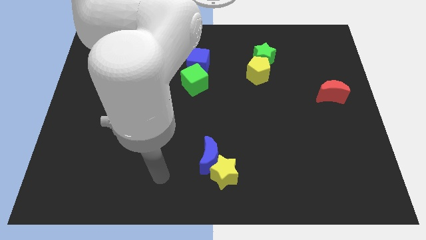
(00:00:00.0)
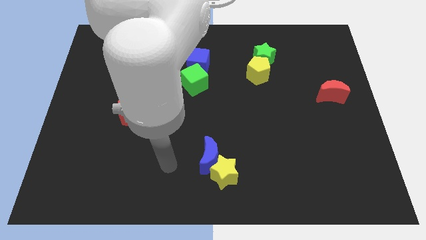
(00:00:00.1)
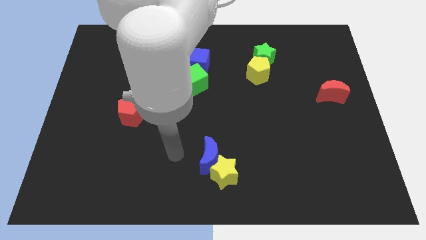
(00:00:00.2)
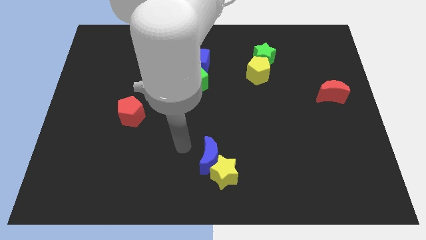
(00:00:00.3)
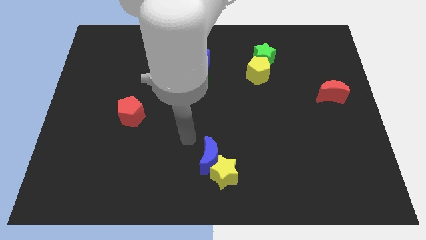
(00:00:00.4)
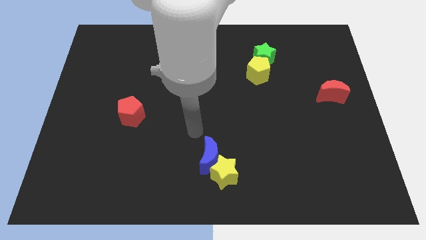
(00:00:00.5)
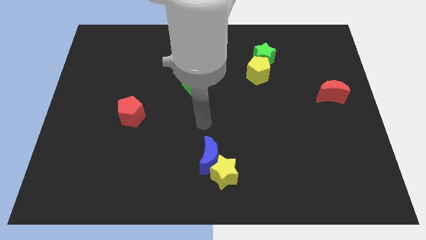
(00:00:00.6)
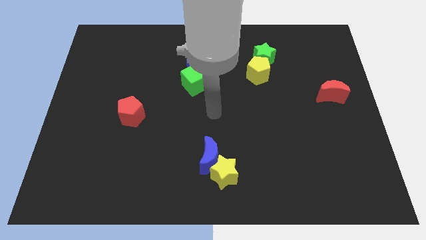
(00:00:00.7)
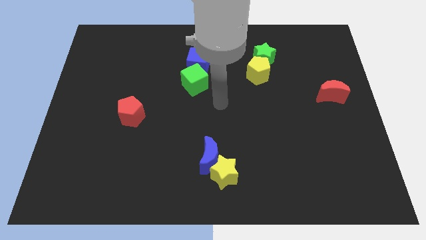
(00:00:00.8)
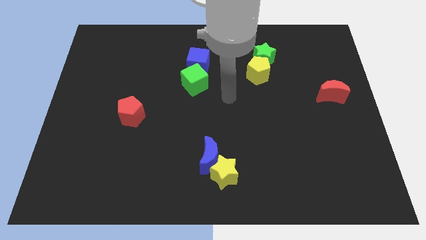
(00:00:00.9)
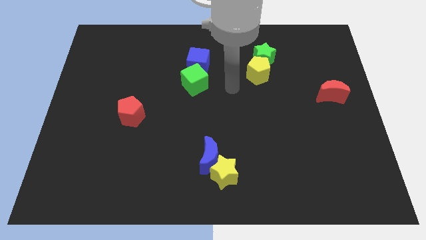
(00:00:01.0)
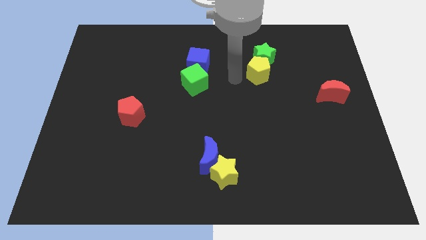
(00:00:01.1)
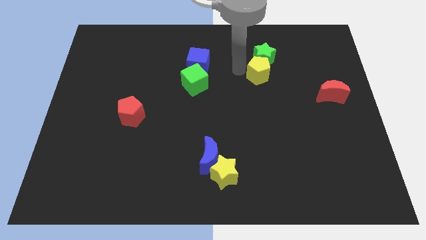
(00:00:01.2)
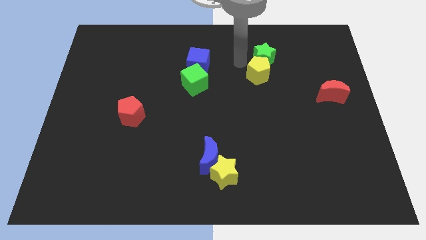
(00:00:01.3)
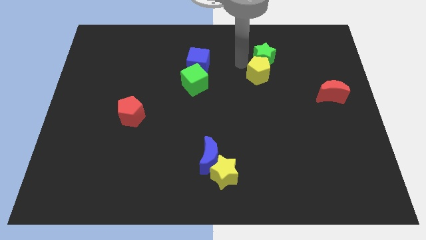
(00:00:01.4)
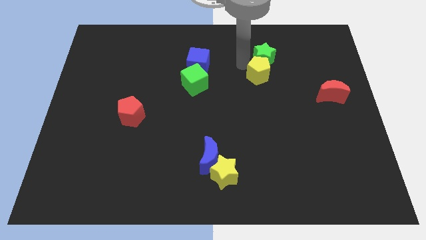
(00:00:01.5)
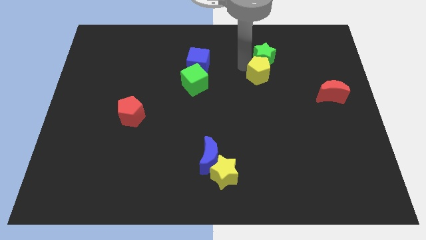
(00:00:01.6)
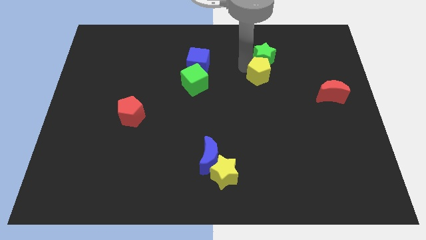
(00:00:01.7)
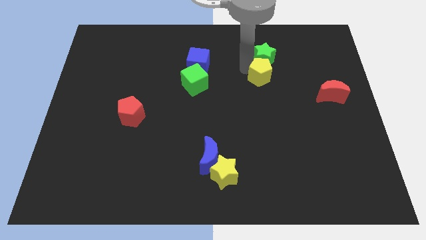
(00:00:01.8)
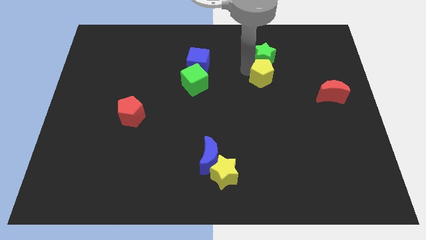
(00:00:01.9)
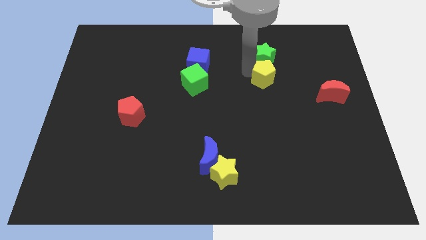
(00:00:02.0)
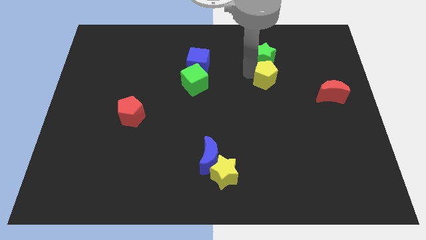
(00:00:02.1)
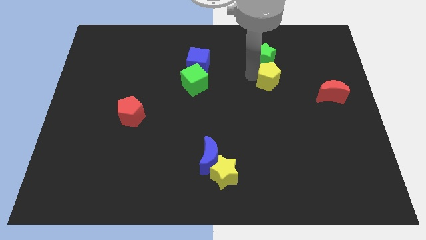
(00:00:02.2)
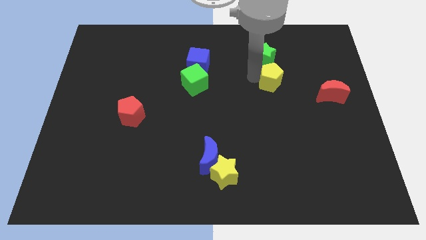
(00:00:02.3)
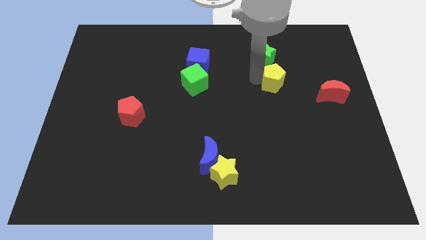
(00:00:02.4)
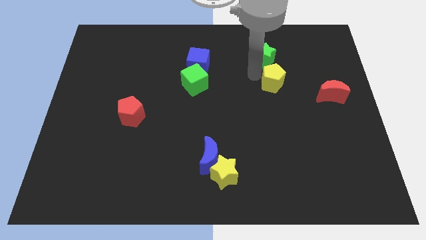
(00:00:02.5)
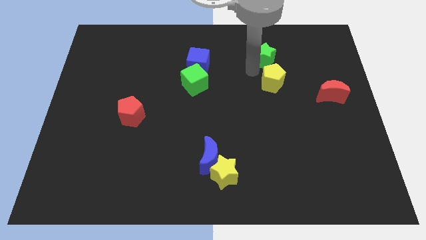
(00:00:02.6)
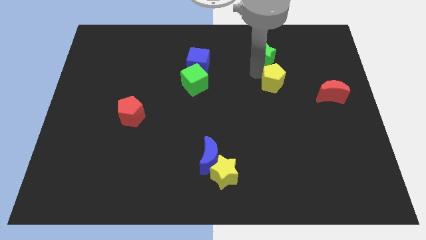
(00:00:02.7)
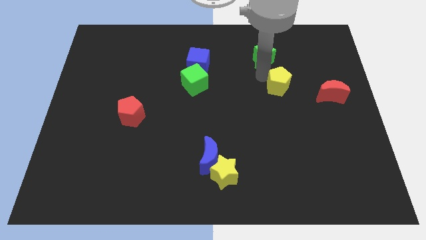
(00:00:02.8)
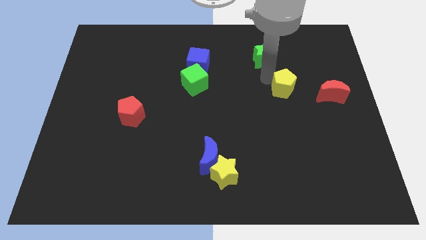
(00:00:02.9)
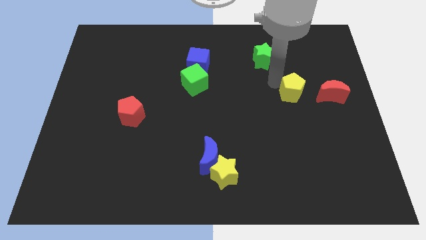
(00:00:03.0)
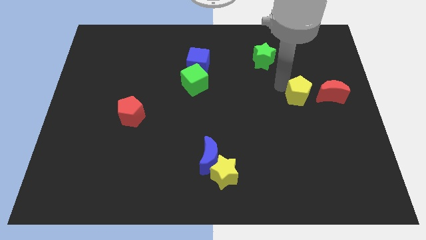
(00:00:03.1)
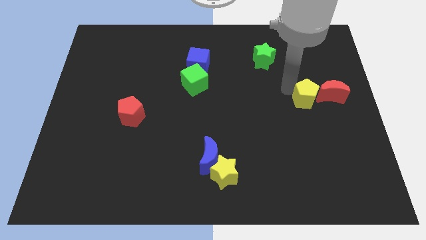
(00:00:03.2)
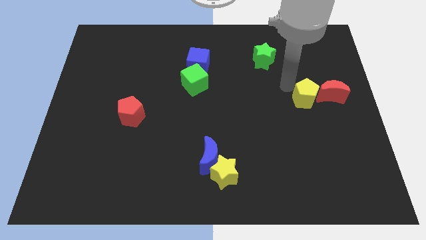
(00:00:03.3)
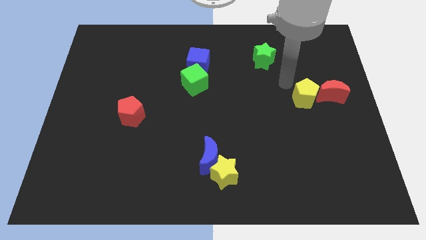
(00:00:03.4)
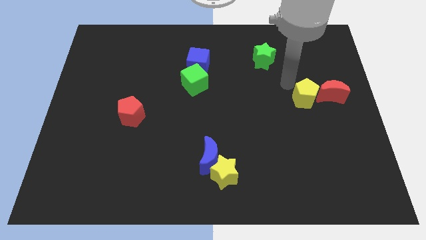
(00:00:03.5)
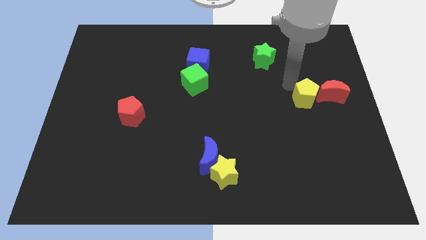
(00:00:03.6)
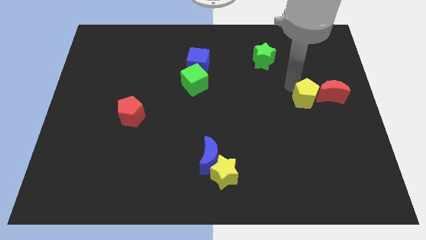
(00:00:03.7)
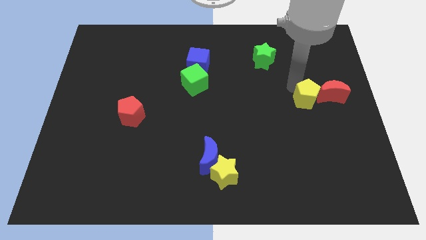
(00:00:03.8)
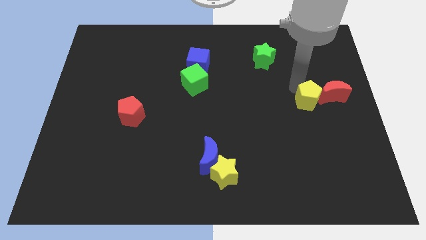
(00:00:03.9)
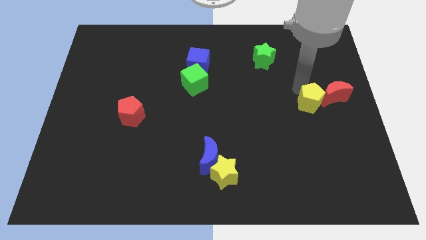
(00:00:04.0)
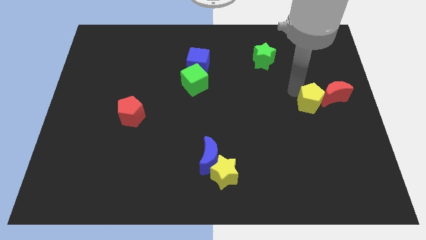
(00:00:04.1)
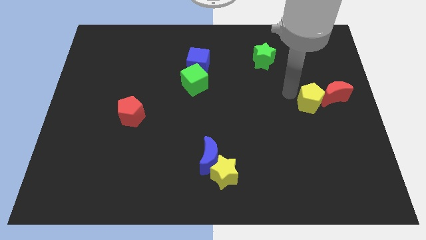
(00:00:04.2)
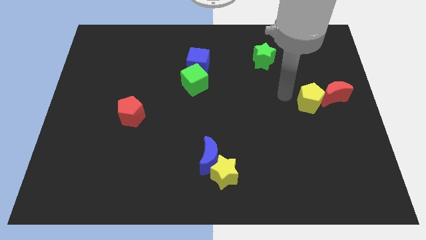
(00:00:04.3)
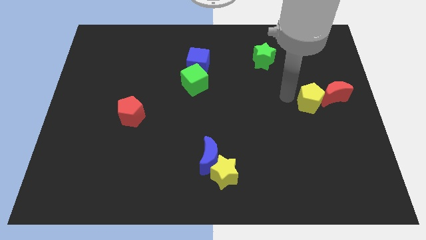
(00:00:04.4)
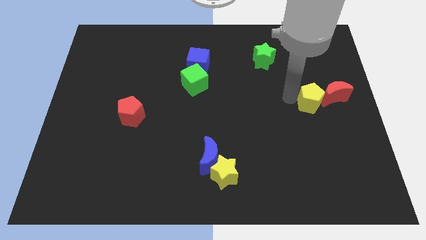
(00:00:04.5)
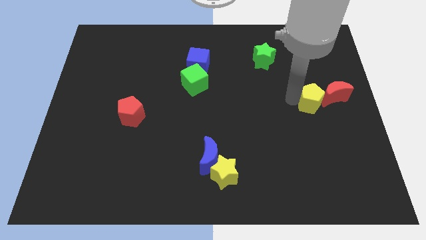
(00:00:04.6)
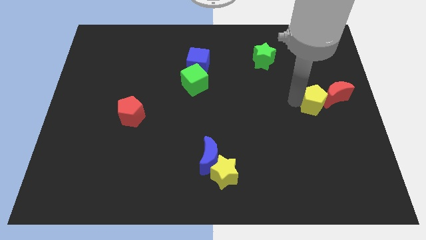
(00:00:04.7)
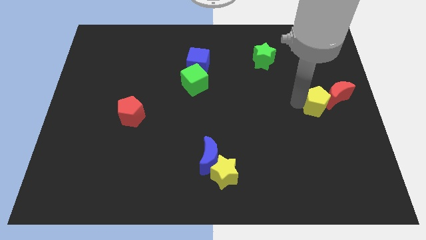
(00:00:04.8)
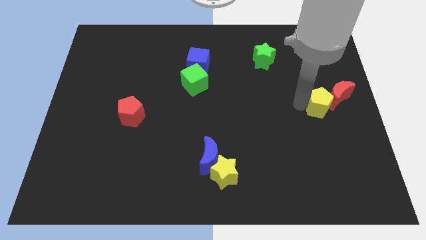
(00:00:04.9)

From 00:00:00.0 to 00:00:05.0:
slide the yellow pentagon to the right side of the board

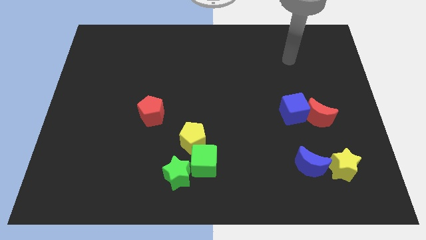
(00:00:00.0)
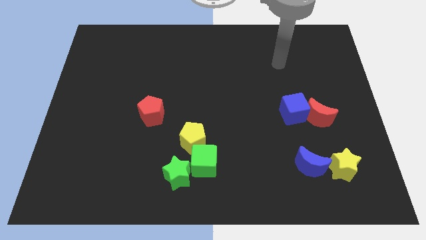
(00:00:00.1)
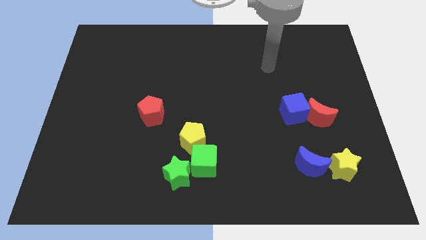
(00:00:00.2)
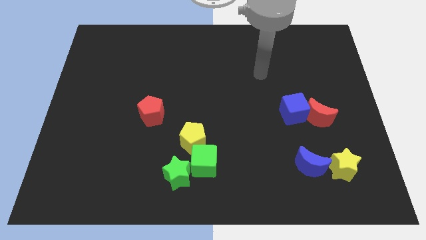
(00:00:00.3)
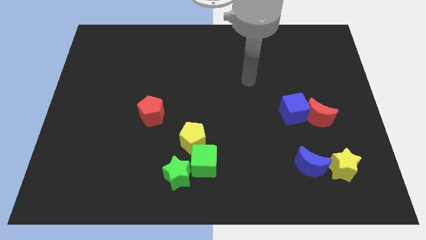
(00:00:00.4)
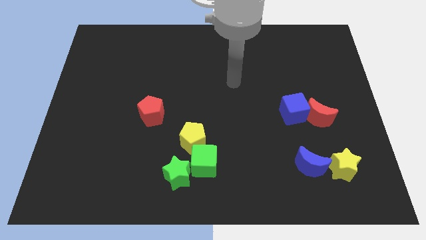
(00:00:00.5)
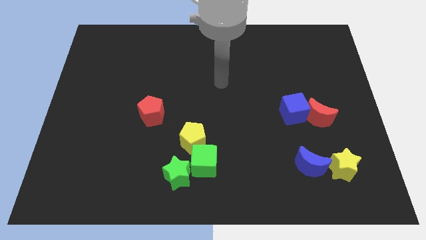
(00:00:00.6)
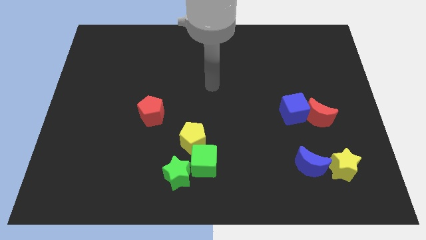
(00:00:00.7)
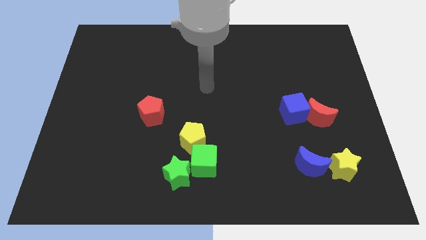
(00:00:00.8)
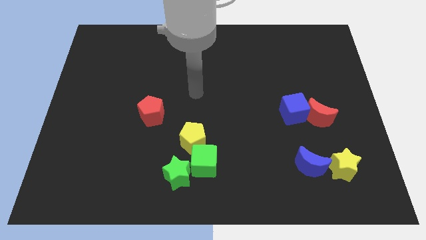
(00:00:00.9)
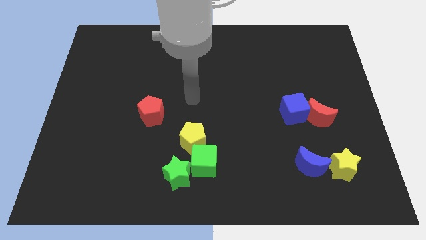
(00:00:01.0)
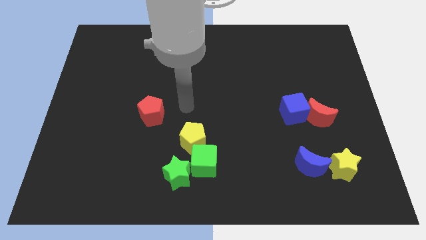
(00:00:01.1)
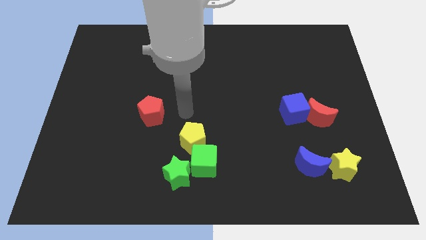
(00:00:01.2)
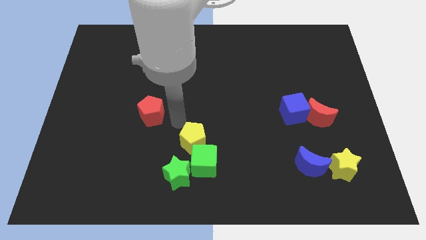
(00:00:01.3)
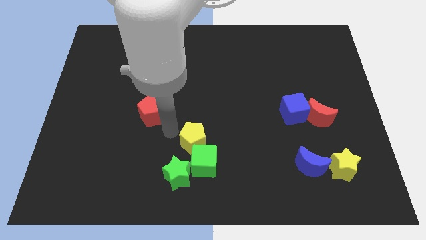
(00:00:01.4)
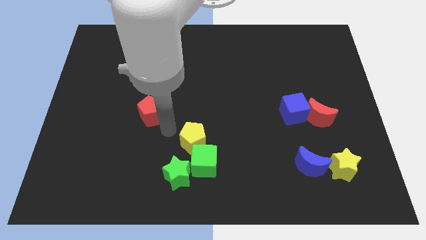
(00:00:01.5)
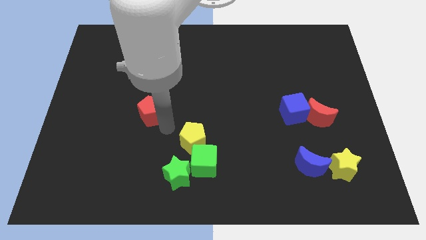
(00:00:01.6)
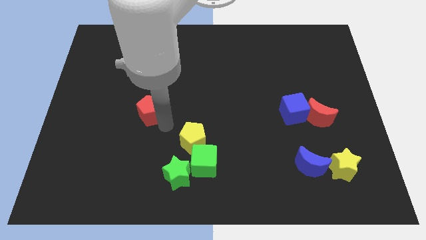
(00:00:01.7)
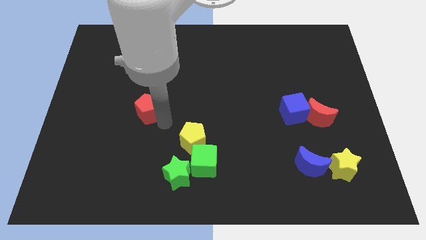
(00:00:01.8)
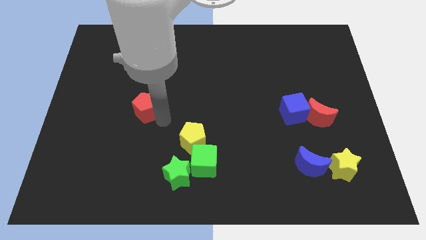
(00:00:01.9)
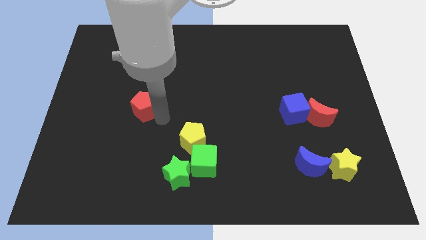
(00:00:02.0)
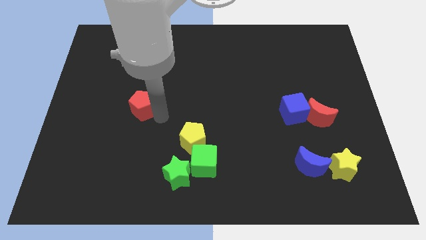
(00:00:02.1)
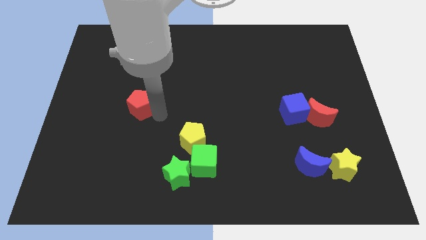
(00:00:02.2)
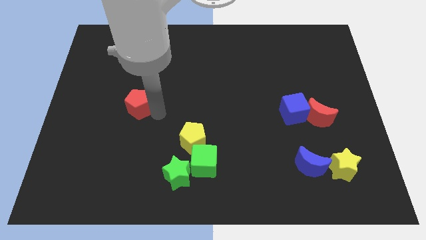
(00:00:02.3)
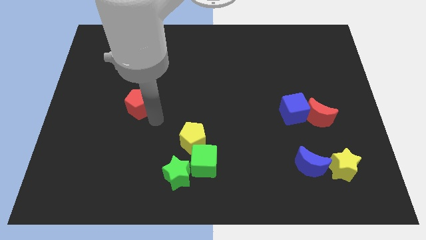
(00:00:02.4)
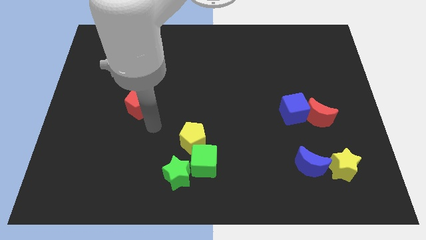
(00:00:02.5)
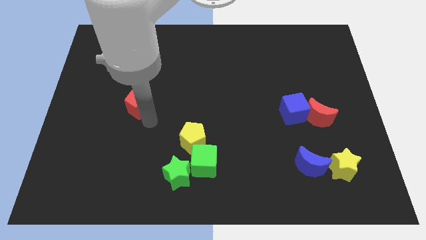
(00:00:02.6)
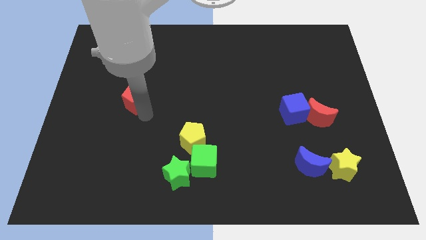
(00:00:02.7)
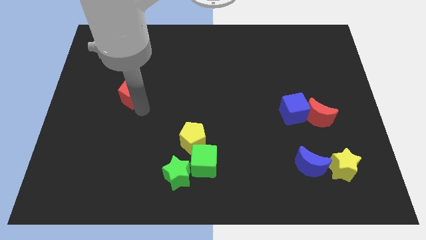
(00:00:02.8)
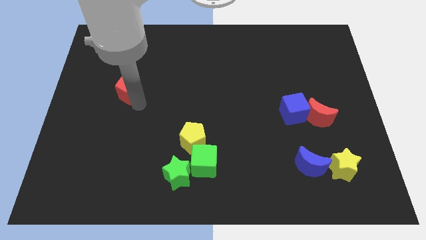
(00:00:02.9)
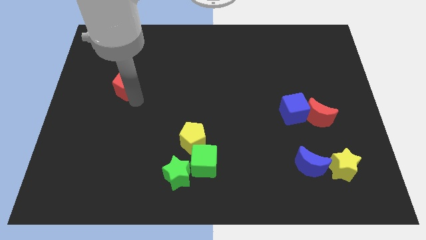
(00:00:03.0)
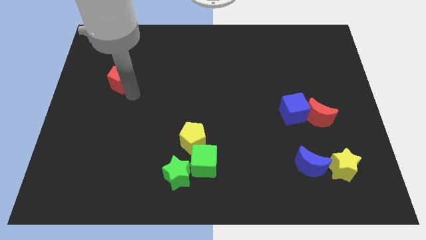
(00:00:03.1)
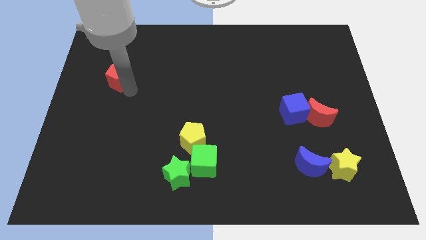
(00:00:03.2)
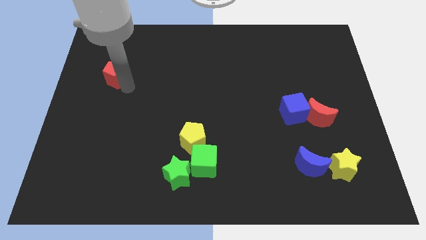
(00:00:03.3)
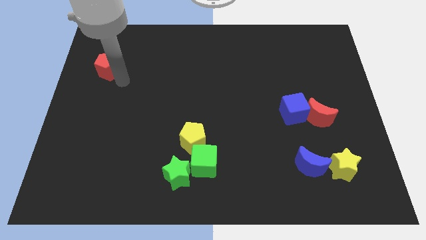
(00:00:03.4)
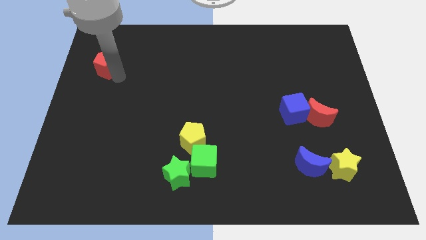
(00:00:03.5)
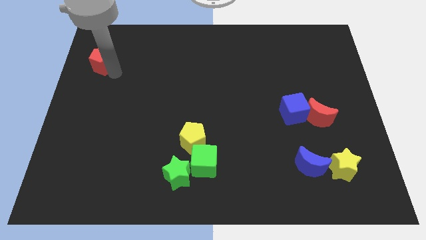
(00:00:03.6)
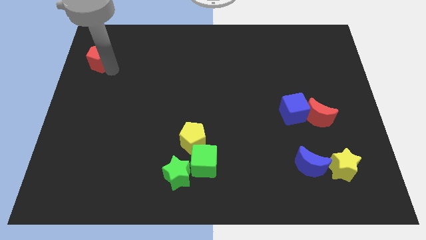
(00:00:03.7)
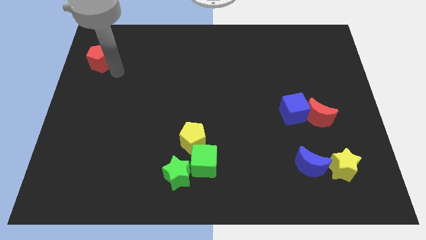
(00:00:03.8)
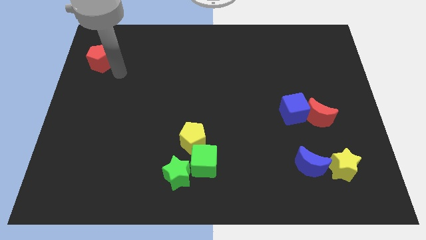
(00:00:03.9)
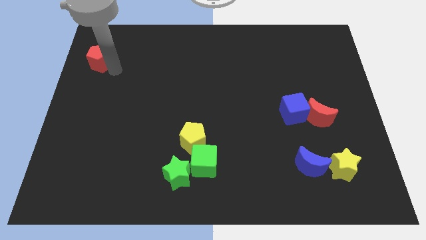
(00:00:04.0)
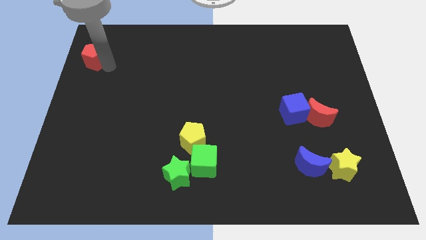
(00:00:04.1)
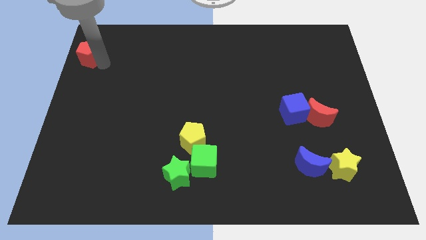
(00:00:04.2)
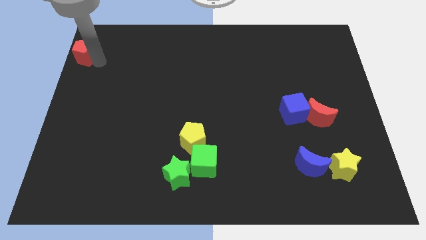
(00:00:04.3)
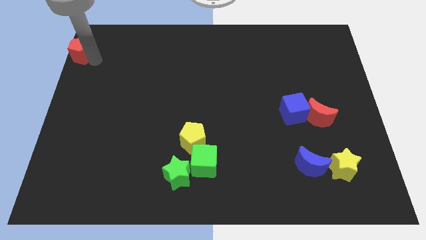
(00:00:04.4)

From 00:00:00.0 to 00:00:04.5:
slide the red pentagon to the top left corner
